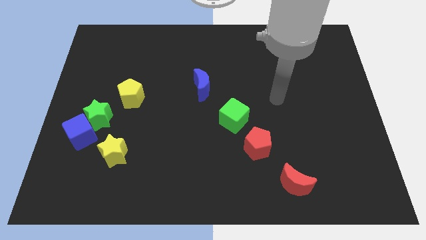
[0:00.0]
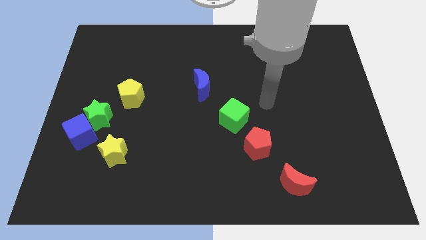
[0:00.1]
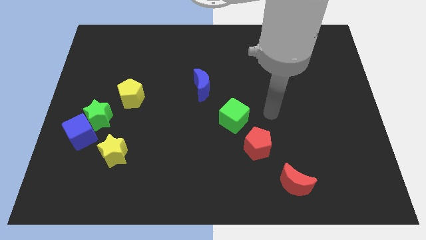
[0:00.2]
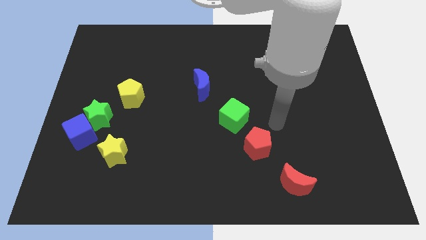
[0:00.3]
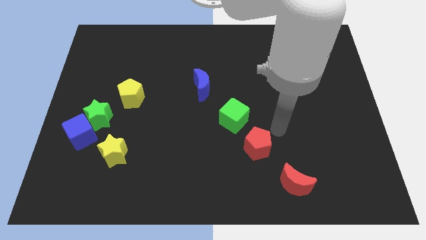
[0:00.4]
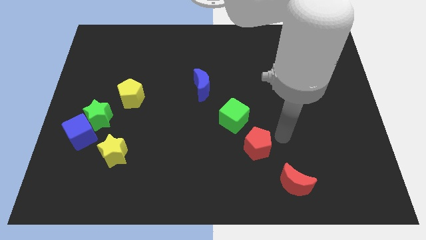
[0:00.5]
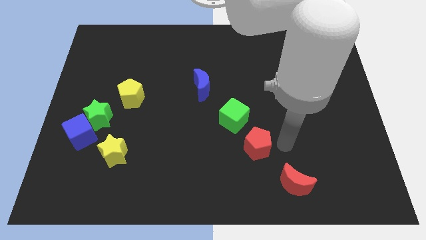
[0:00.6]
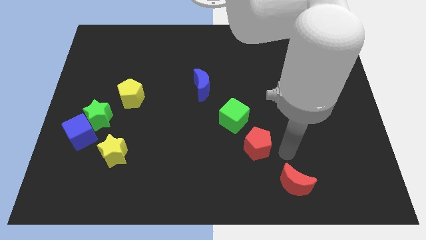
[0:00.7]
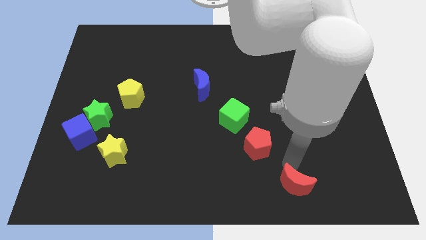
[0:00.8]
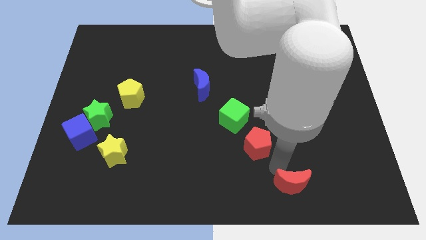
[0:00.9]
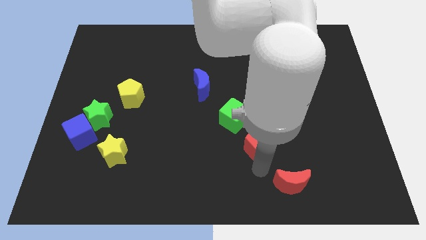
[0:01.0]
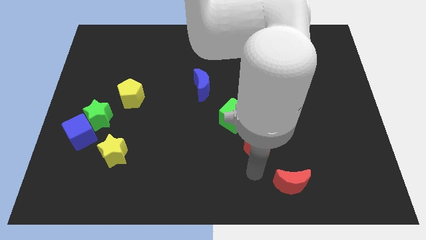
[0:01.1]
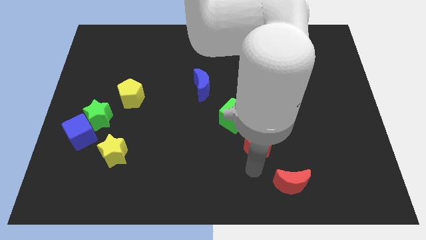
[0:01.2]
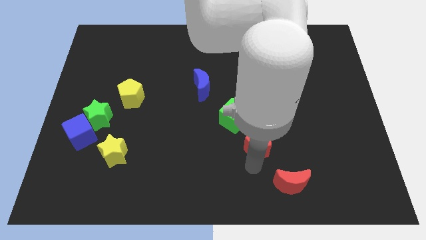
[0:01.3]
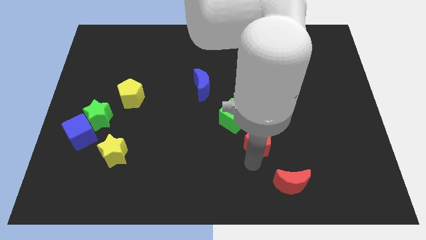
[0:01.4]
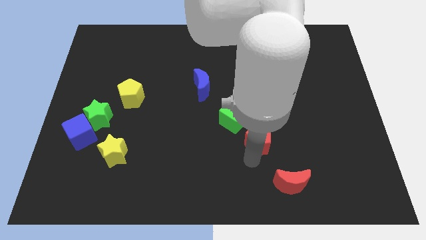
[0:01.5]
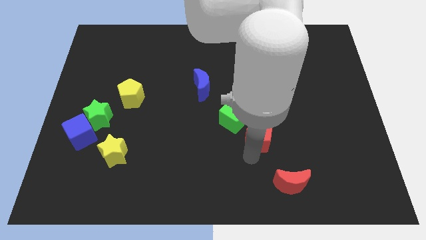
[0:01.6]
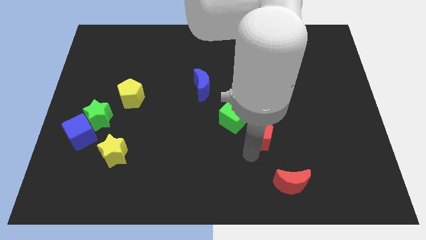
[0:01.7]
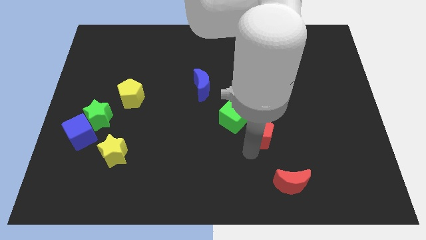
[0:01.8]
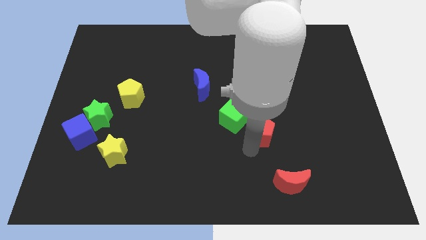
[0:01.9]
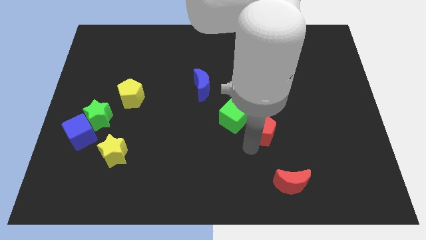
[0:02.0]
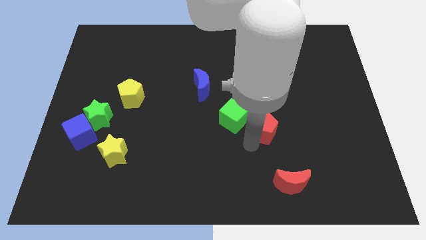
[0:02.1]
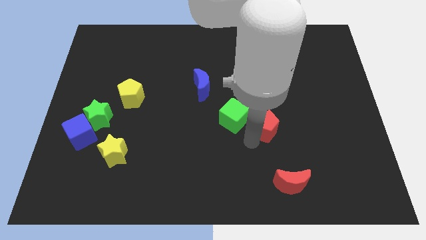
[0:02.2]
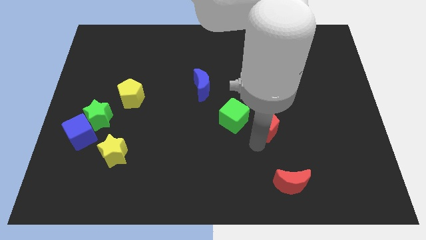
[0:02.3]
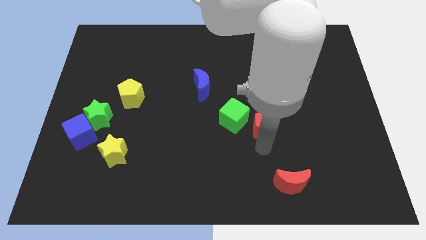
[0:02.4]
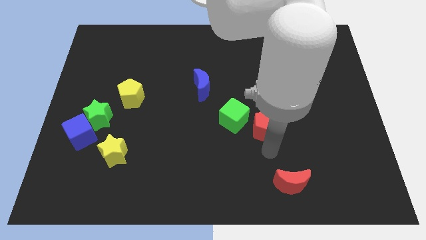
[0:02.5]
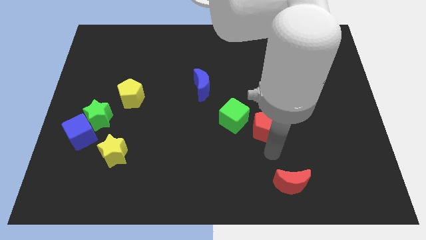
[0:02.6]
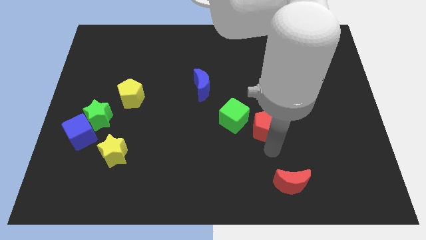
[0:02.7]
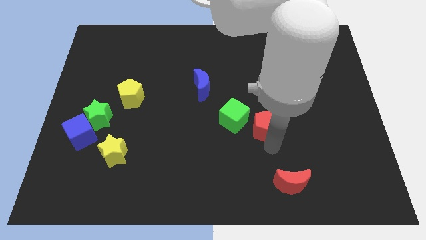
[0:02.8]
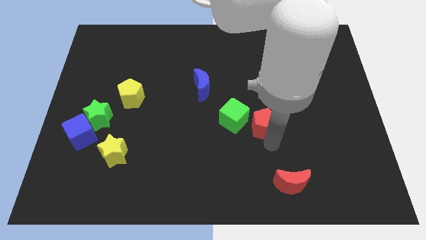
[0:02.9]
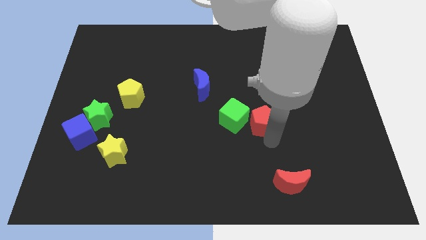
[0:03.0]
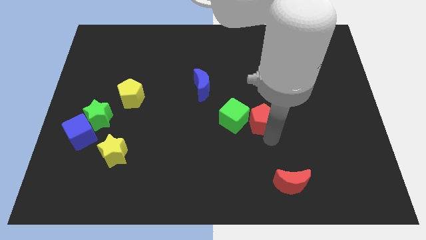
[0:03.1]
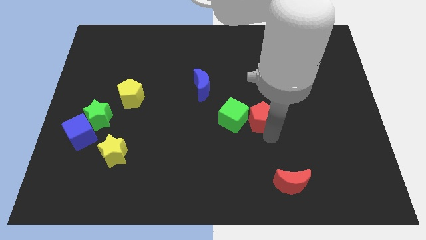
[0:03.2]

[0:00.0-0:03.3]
move the red pentagon a little bit upwards

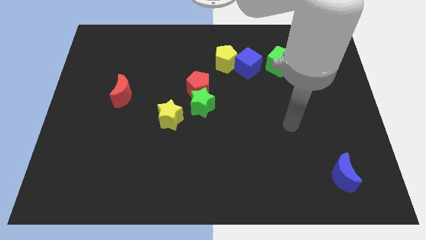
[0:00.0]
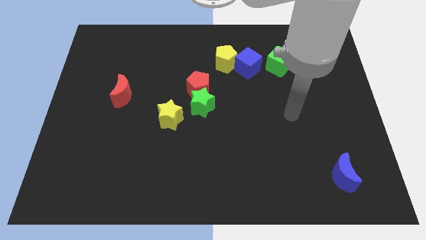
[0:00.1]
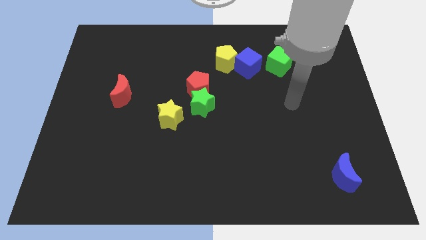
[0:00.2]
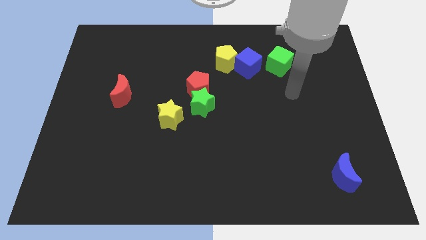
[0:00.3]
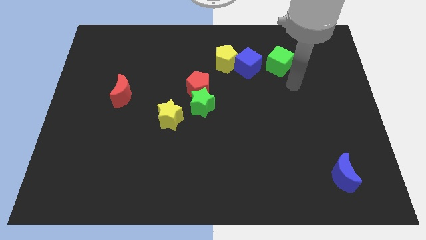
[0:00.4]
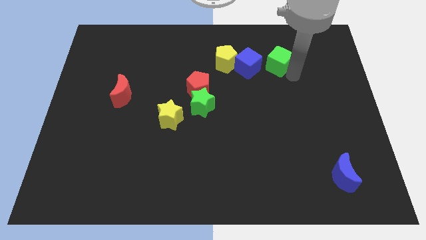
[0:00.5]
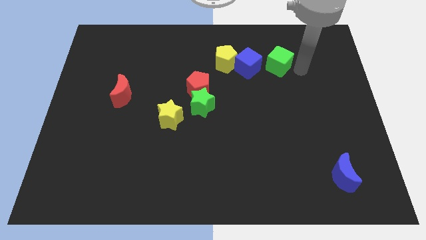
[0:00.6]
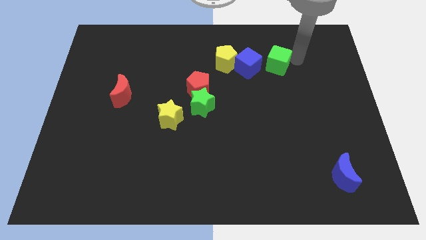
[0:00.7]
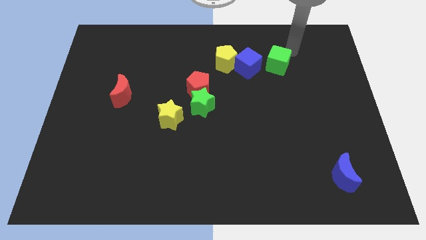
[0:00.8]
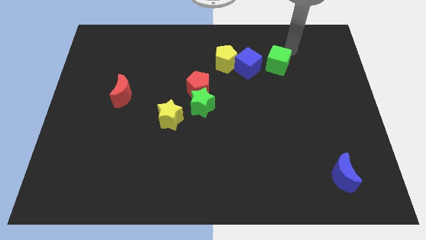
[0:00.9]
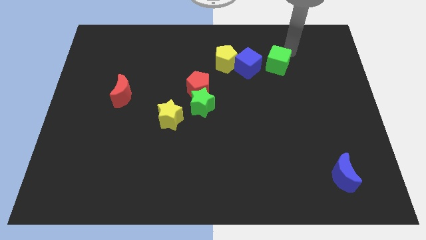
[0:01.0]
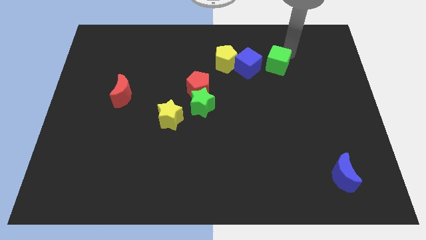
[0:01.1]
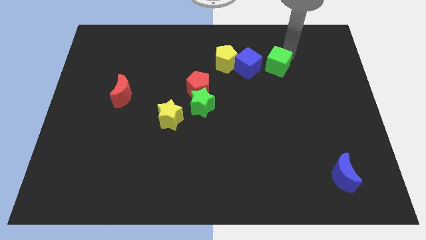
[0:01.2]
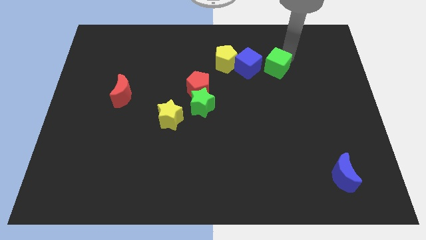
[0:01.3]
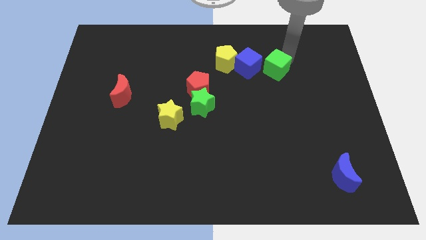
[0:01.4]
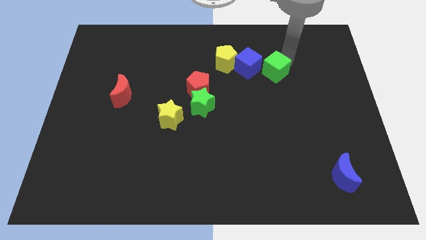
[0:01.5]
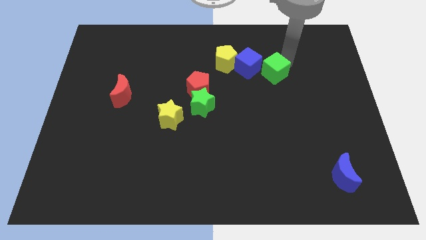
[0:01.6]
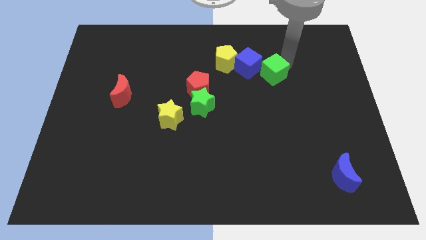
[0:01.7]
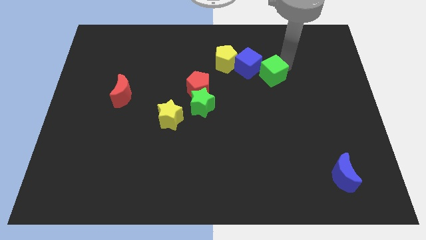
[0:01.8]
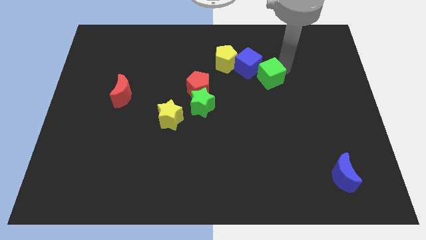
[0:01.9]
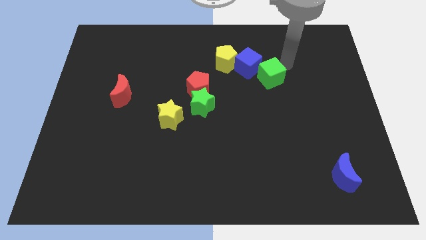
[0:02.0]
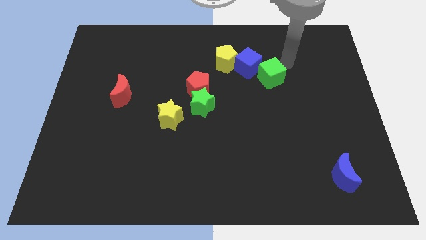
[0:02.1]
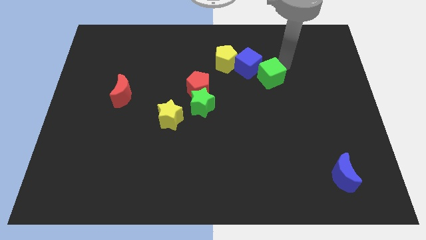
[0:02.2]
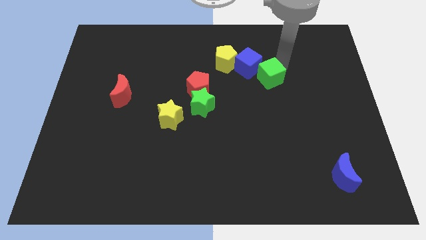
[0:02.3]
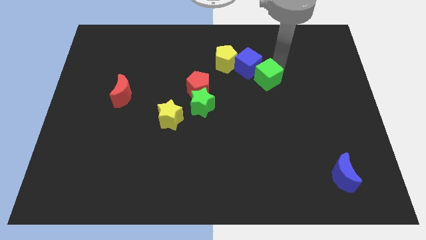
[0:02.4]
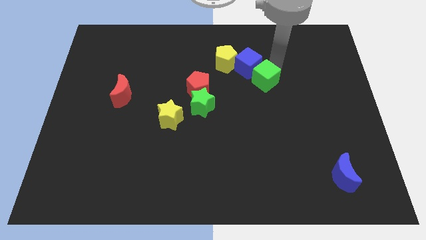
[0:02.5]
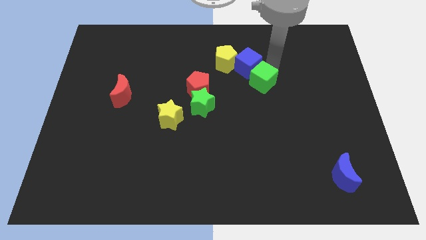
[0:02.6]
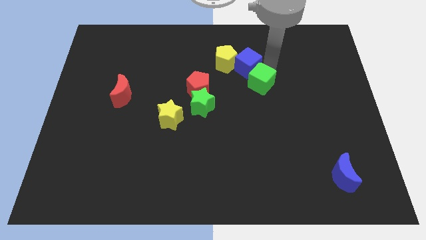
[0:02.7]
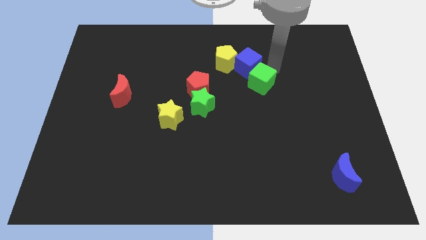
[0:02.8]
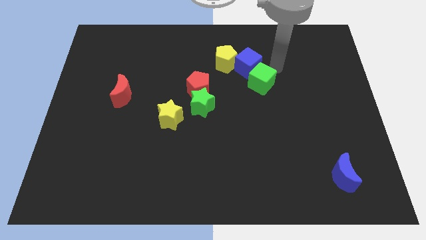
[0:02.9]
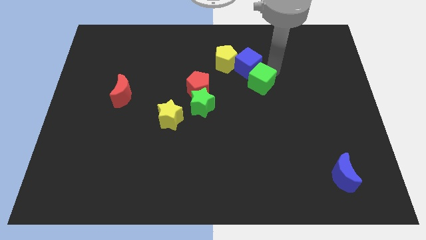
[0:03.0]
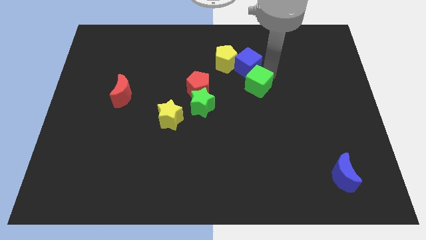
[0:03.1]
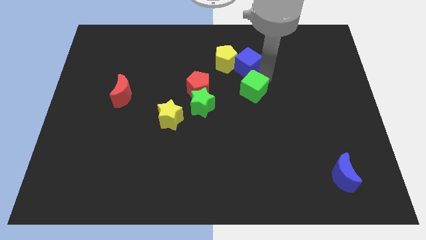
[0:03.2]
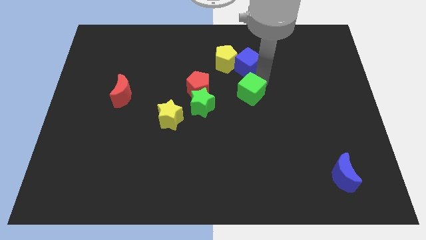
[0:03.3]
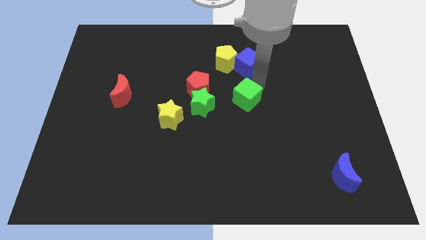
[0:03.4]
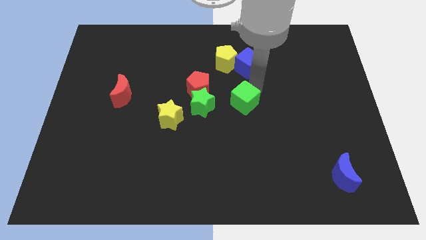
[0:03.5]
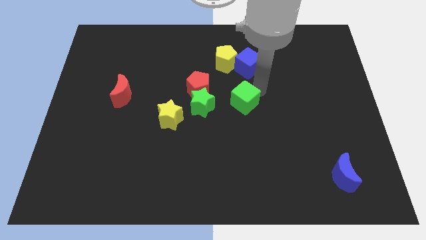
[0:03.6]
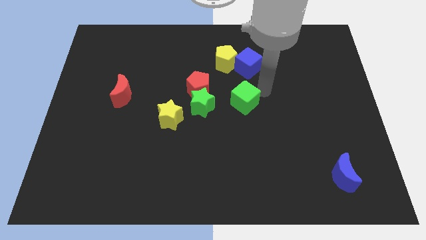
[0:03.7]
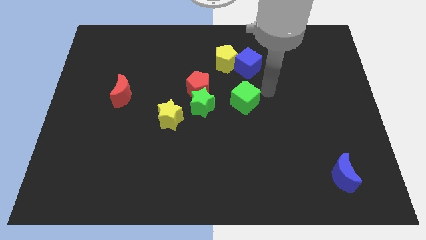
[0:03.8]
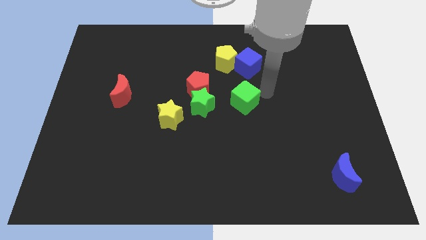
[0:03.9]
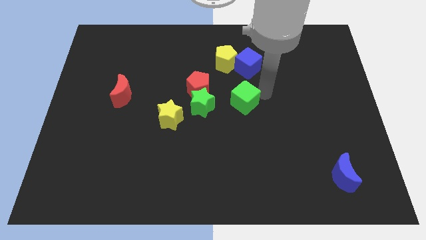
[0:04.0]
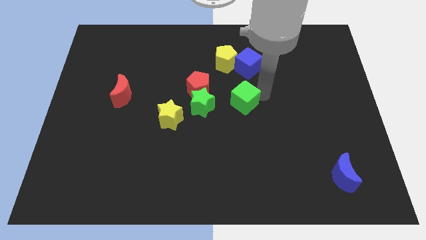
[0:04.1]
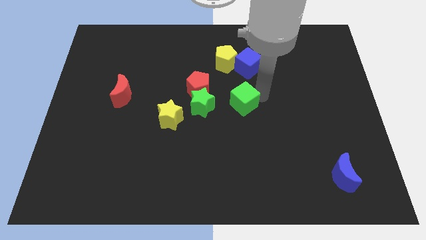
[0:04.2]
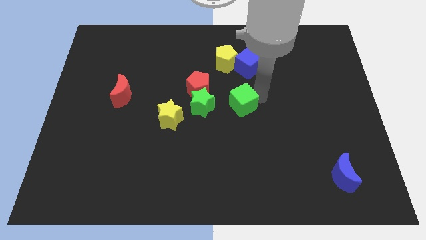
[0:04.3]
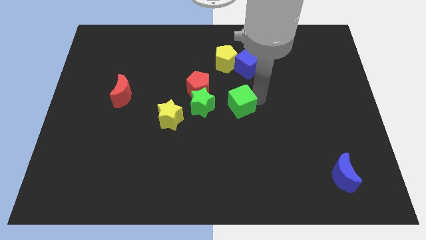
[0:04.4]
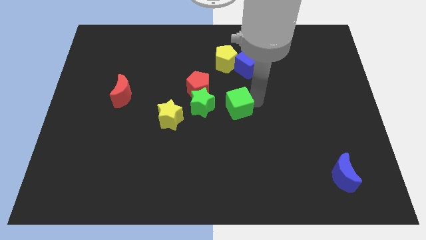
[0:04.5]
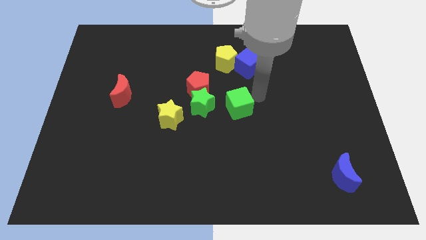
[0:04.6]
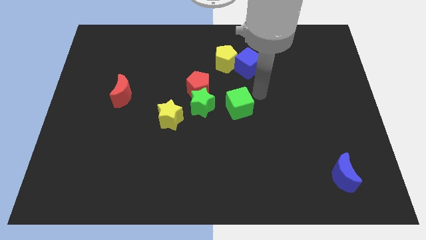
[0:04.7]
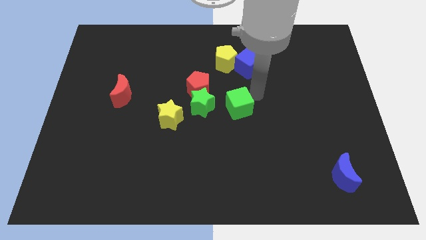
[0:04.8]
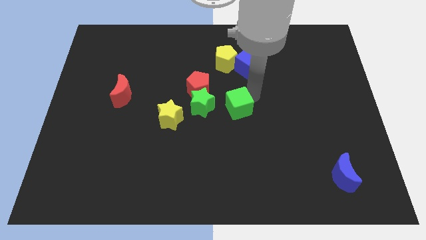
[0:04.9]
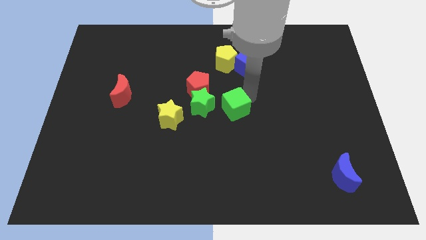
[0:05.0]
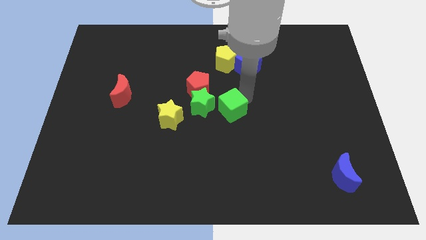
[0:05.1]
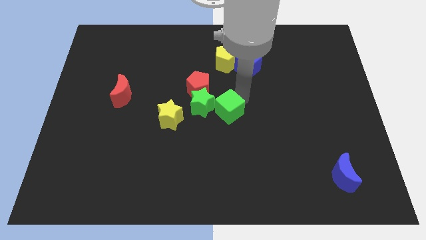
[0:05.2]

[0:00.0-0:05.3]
slide the green cube downwards and to the left
